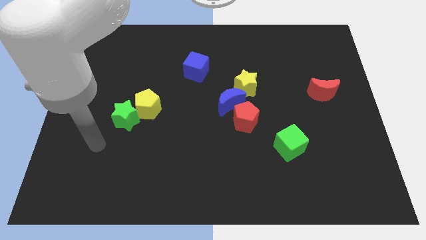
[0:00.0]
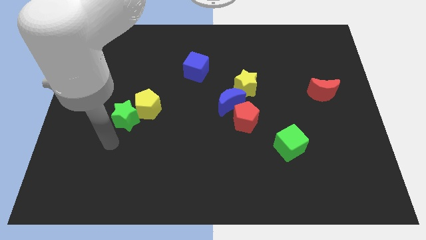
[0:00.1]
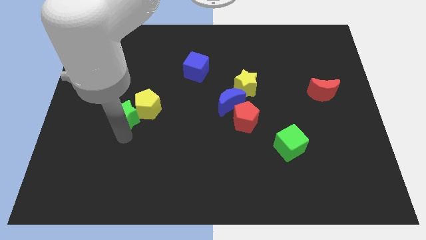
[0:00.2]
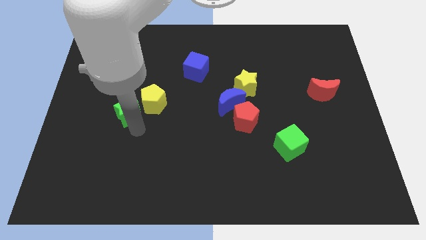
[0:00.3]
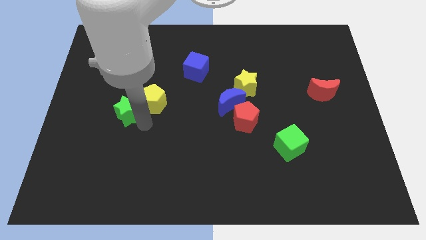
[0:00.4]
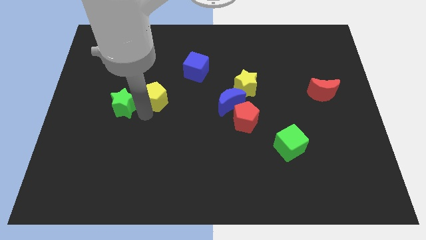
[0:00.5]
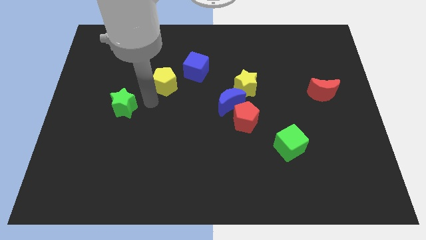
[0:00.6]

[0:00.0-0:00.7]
separate the green star from the yellow pentagon

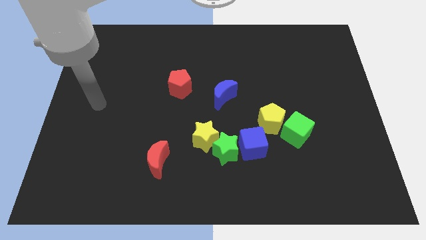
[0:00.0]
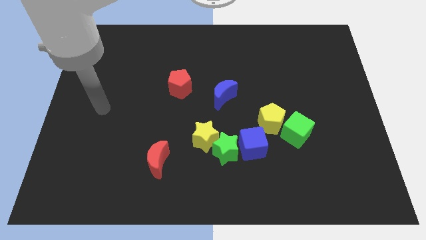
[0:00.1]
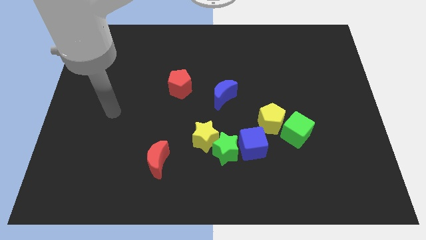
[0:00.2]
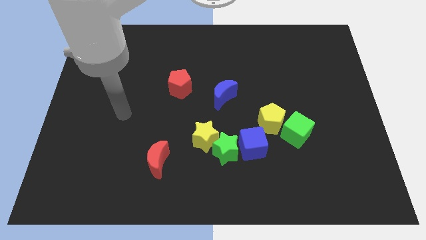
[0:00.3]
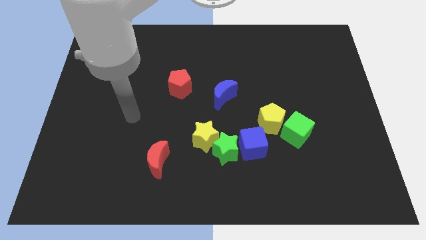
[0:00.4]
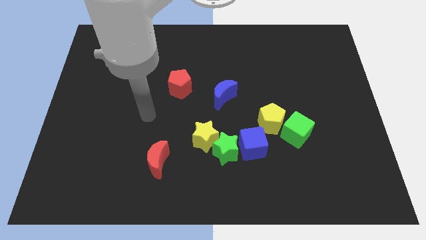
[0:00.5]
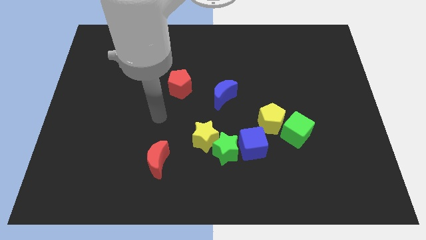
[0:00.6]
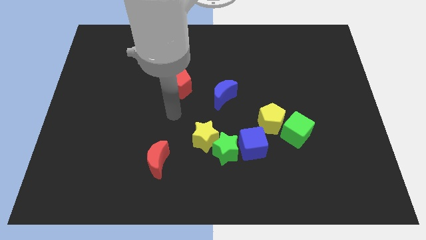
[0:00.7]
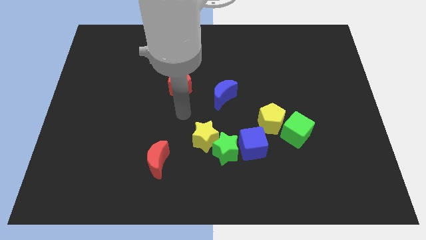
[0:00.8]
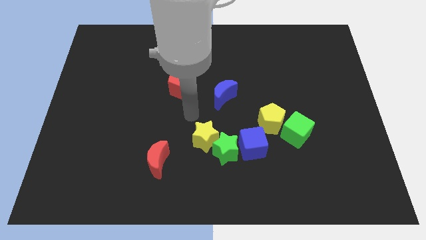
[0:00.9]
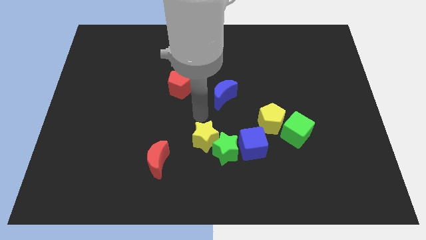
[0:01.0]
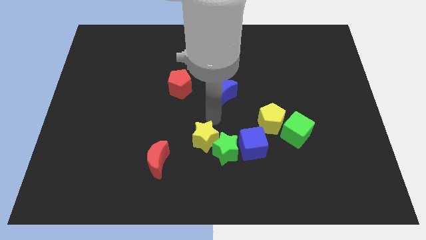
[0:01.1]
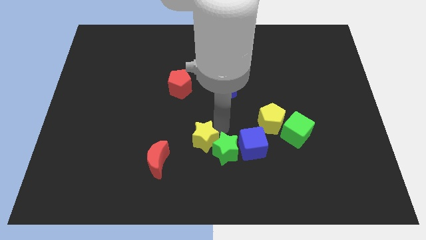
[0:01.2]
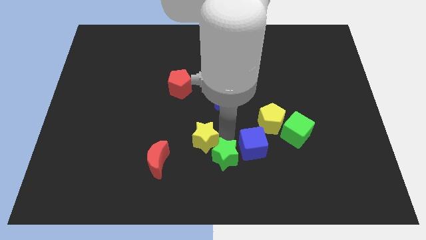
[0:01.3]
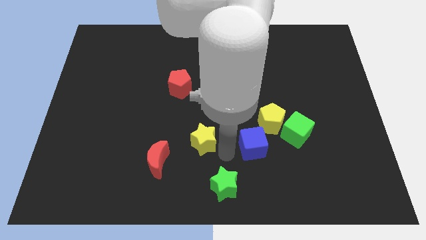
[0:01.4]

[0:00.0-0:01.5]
separate the yellow star from the green star

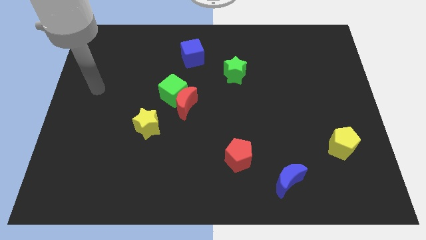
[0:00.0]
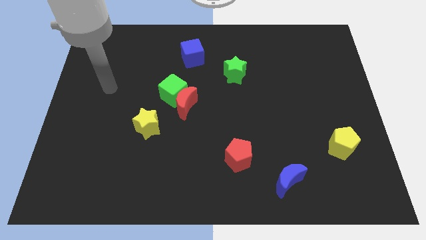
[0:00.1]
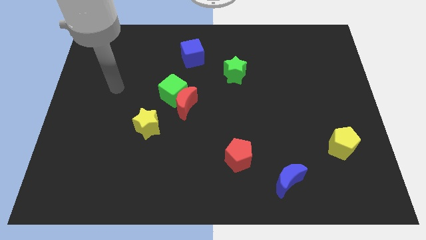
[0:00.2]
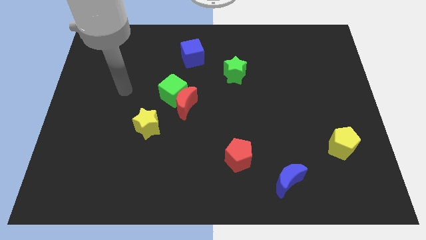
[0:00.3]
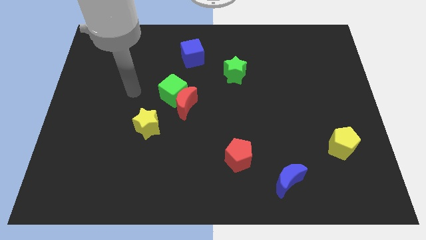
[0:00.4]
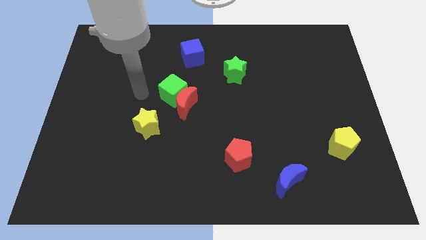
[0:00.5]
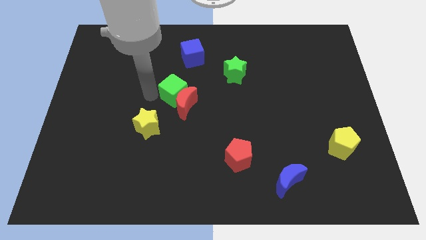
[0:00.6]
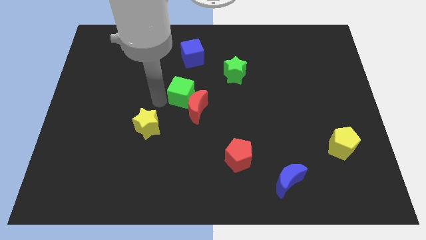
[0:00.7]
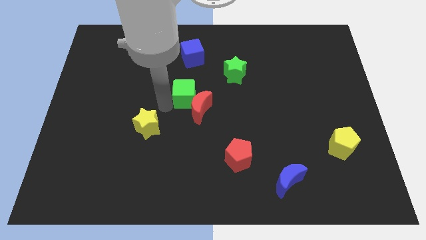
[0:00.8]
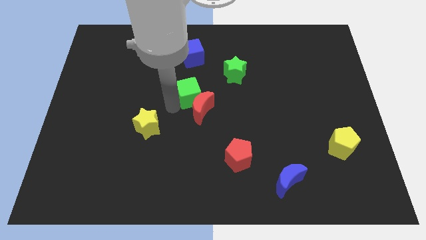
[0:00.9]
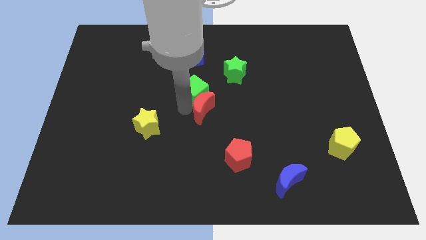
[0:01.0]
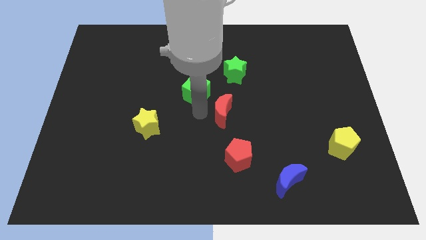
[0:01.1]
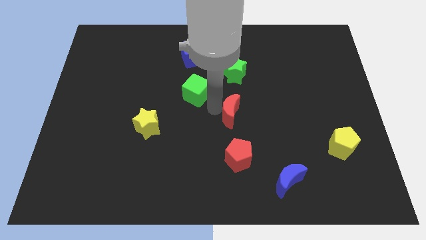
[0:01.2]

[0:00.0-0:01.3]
move the green cube away from the red moon

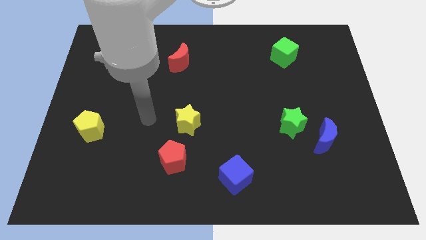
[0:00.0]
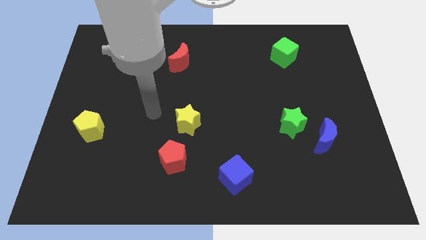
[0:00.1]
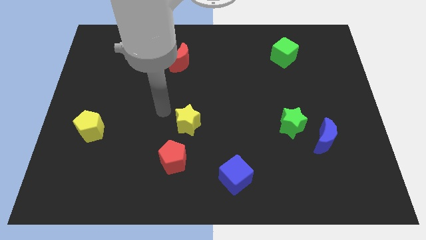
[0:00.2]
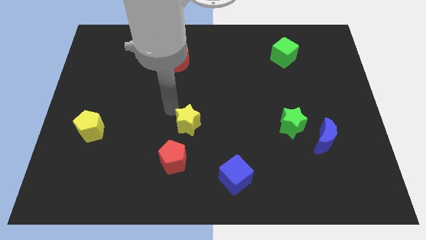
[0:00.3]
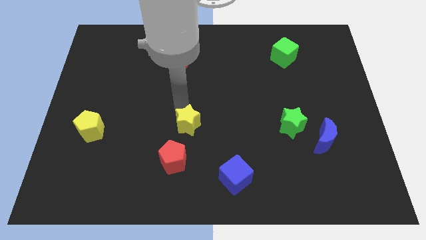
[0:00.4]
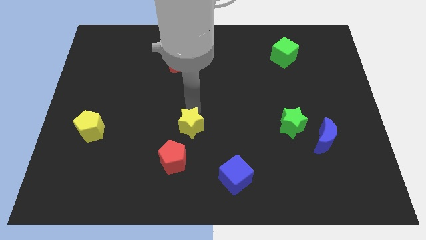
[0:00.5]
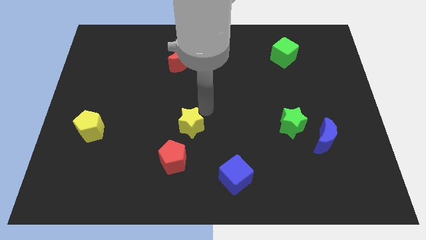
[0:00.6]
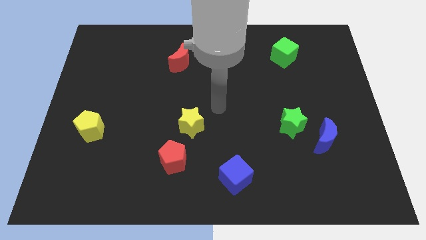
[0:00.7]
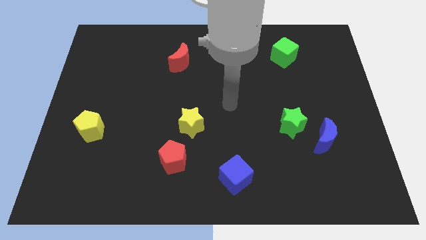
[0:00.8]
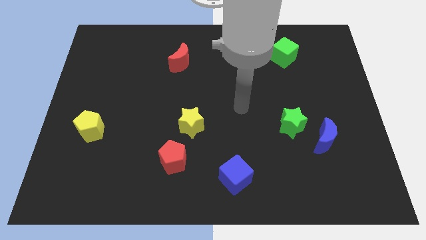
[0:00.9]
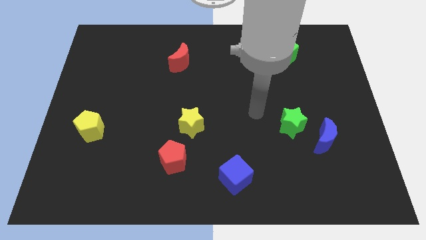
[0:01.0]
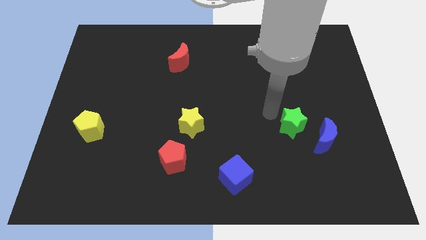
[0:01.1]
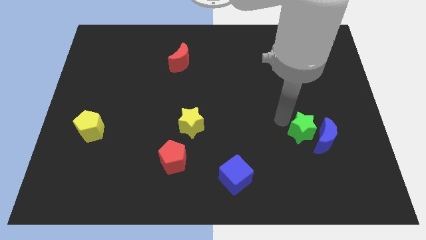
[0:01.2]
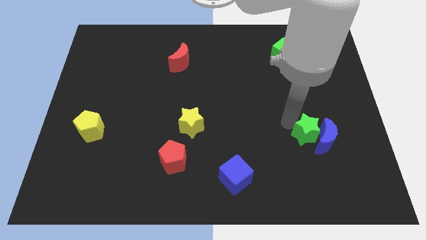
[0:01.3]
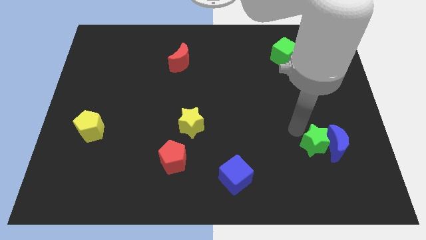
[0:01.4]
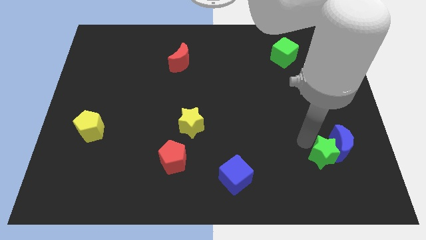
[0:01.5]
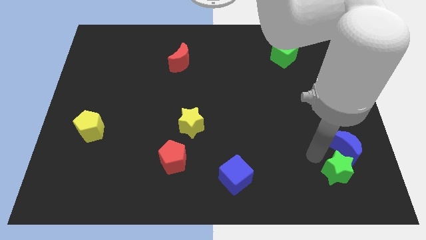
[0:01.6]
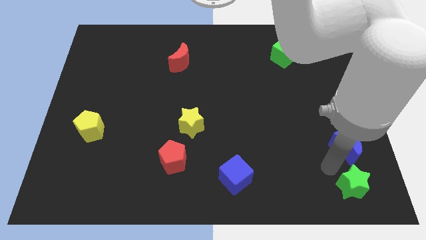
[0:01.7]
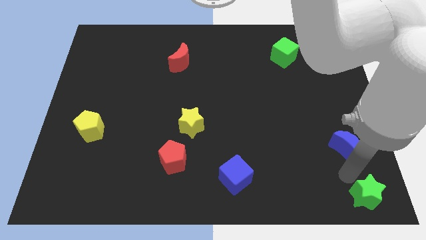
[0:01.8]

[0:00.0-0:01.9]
separate the blue moon from the green star

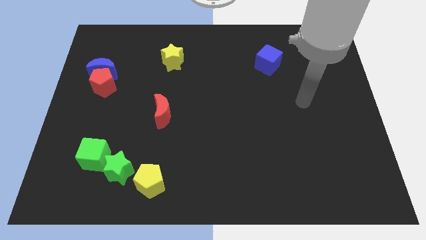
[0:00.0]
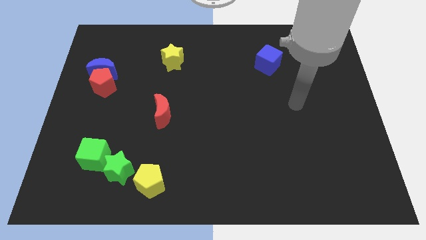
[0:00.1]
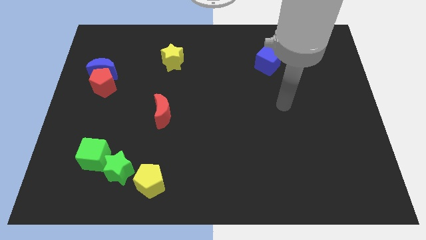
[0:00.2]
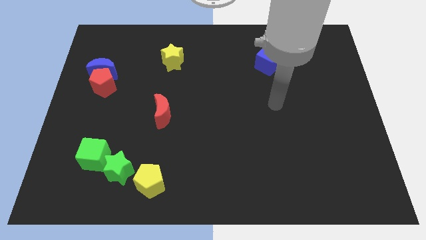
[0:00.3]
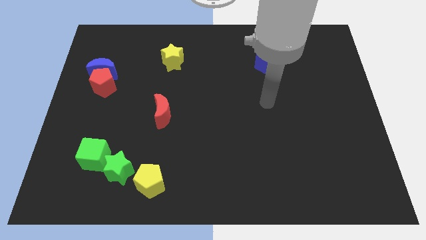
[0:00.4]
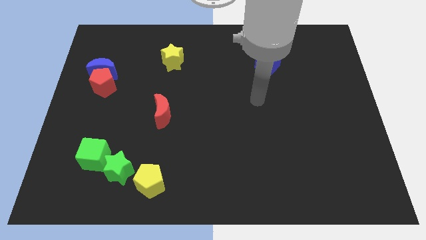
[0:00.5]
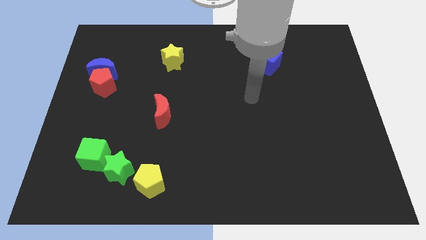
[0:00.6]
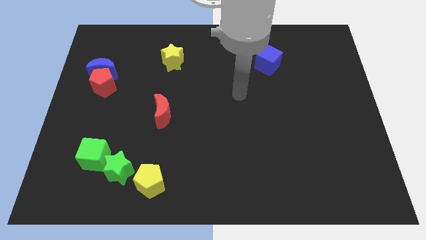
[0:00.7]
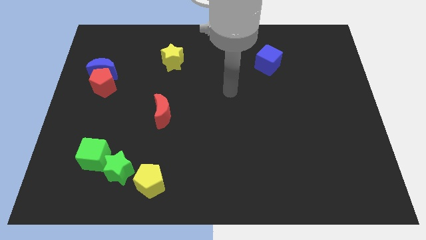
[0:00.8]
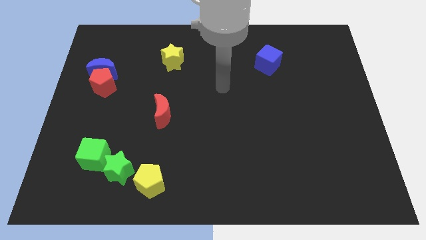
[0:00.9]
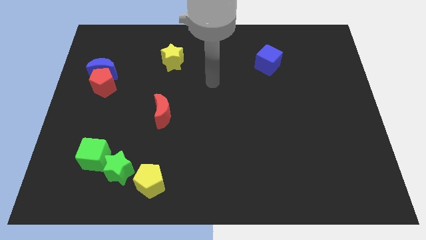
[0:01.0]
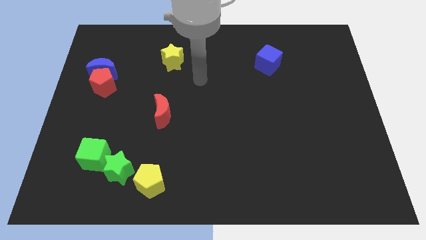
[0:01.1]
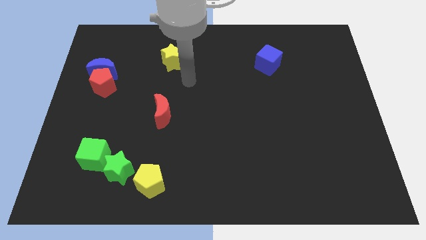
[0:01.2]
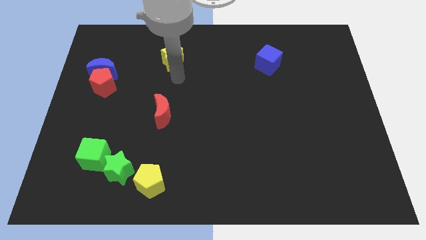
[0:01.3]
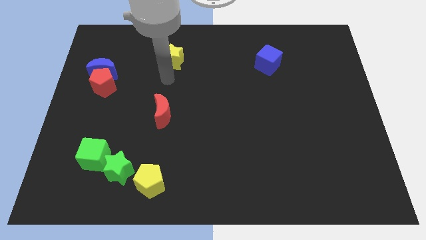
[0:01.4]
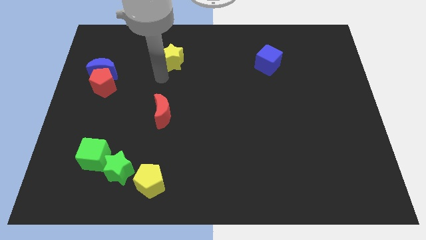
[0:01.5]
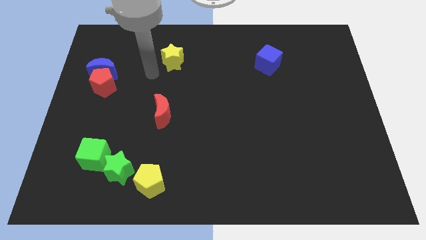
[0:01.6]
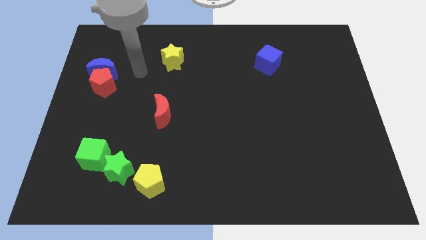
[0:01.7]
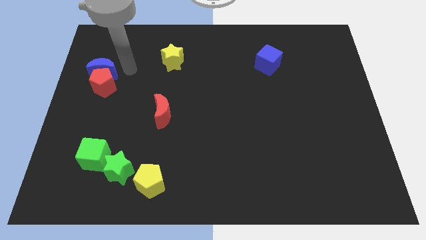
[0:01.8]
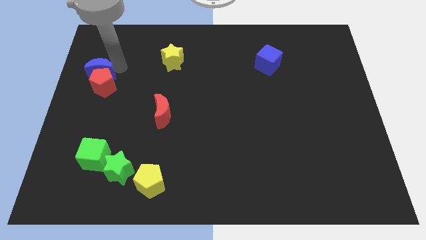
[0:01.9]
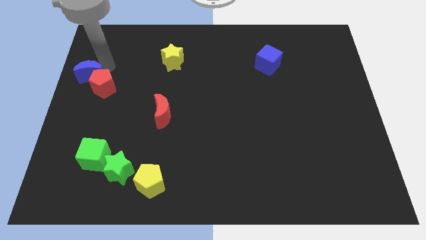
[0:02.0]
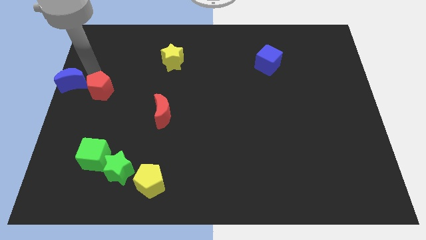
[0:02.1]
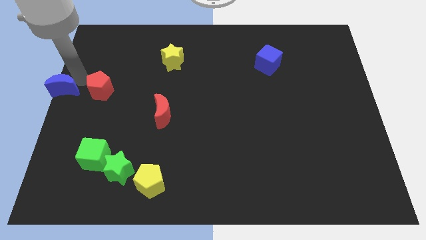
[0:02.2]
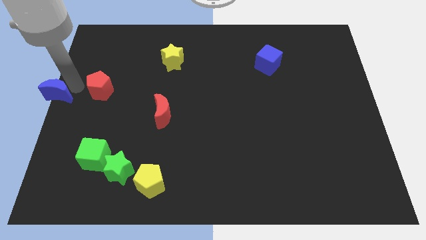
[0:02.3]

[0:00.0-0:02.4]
pull the red pentagon apart from the blue moon

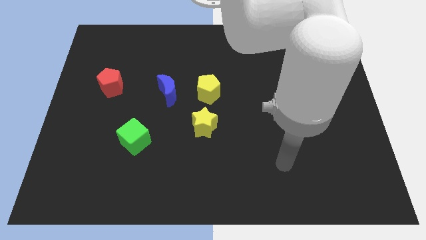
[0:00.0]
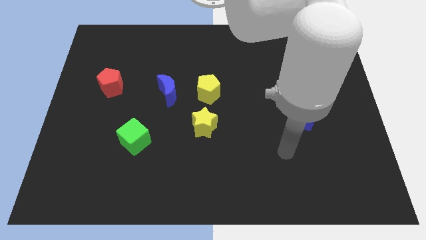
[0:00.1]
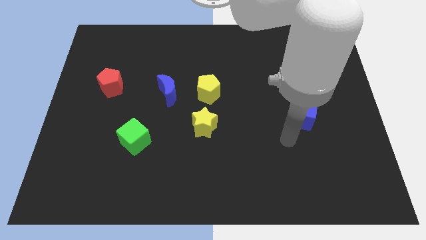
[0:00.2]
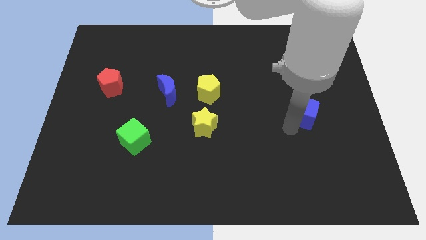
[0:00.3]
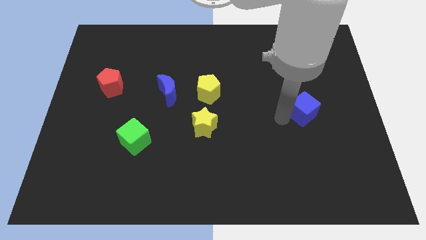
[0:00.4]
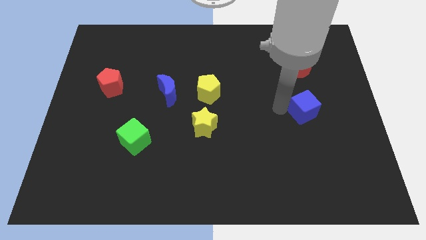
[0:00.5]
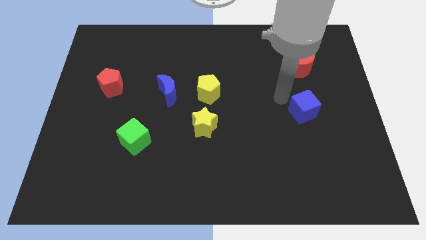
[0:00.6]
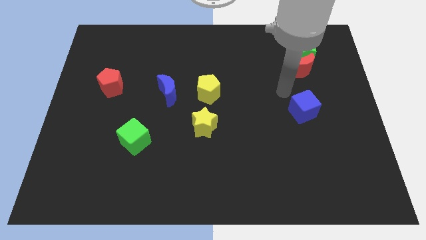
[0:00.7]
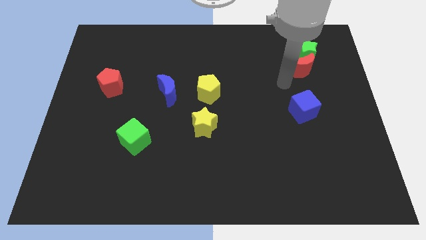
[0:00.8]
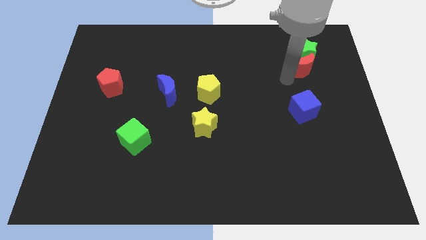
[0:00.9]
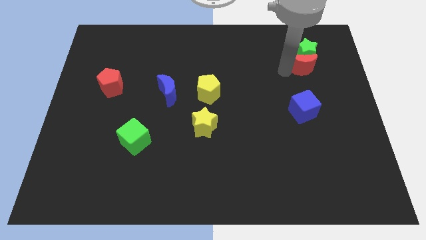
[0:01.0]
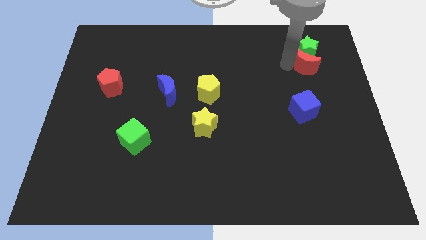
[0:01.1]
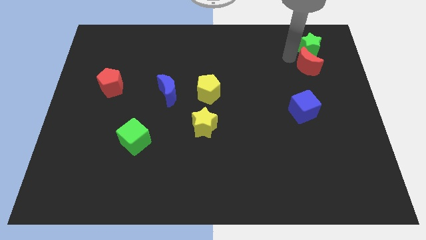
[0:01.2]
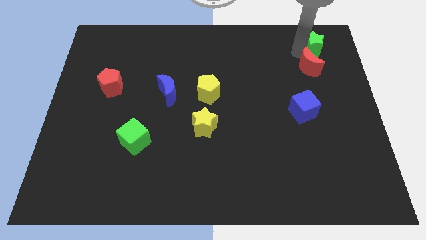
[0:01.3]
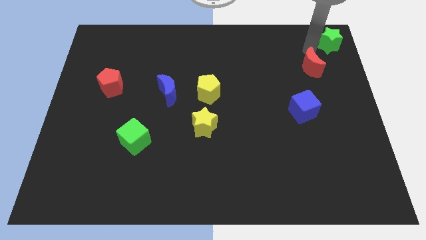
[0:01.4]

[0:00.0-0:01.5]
separate the red moon from the green star
